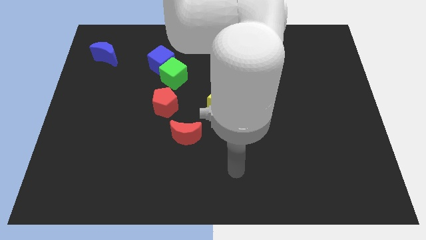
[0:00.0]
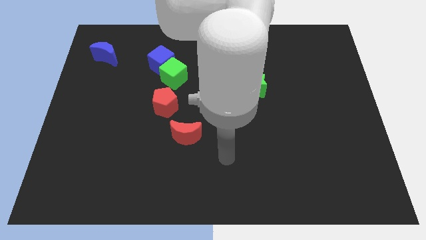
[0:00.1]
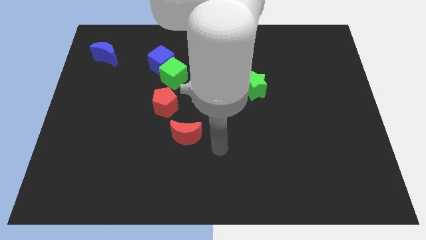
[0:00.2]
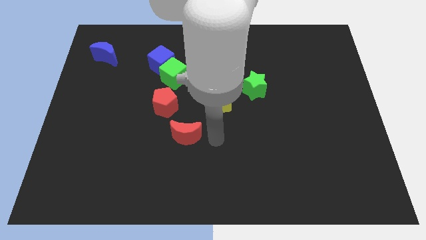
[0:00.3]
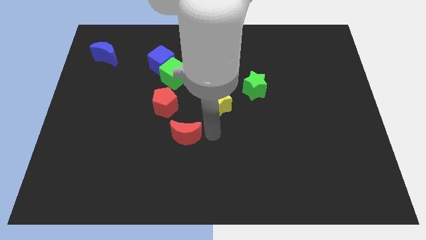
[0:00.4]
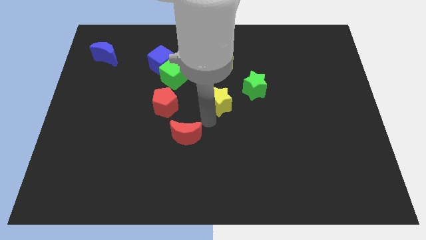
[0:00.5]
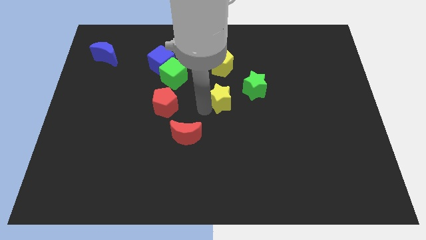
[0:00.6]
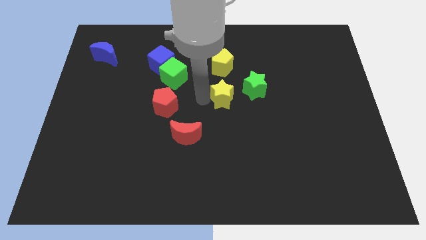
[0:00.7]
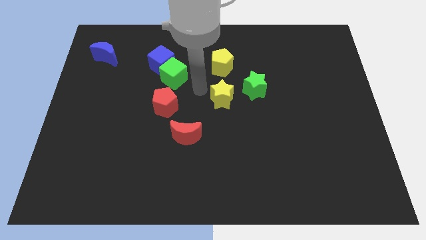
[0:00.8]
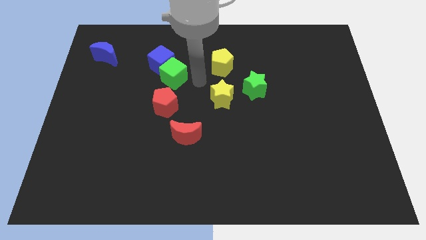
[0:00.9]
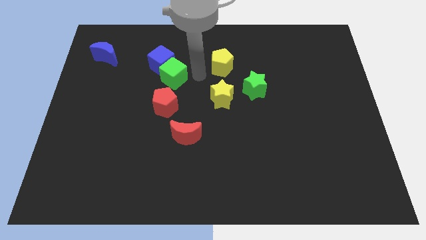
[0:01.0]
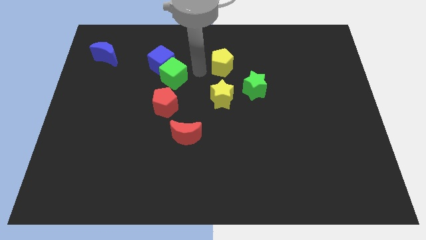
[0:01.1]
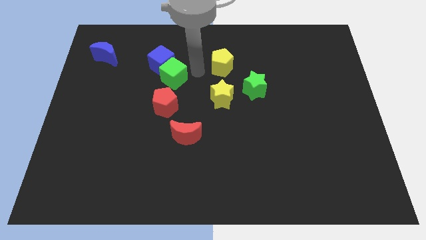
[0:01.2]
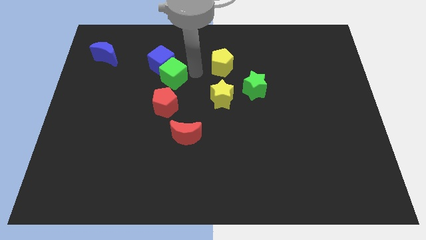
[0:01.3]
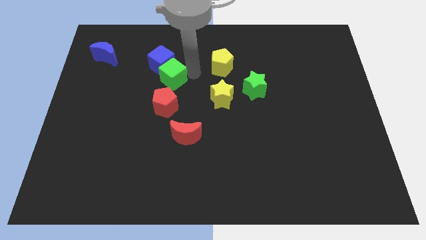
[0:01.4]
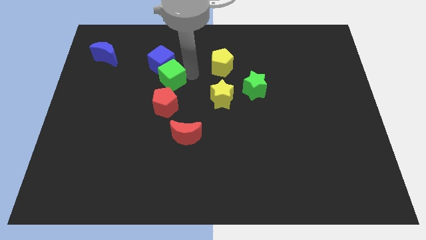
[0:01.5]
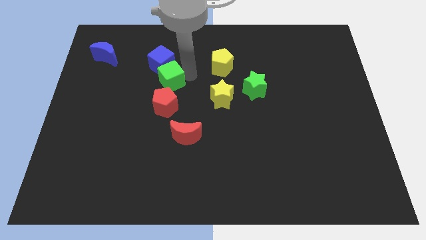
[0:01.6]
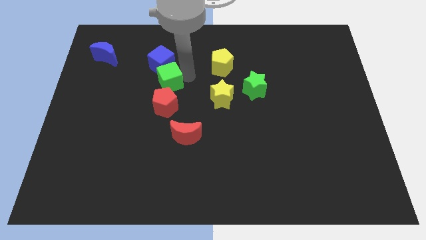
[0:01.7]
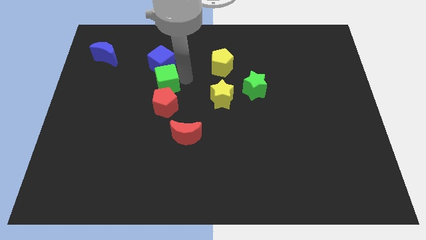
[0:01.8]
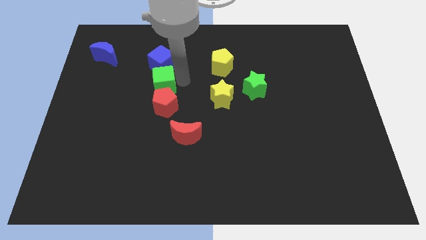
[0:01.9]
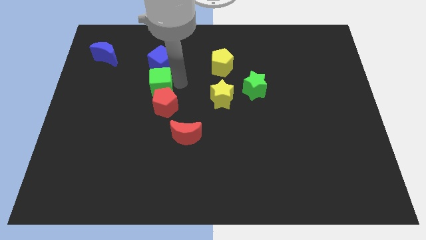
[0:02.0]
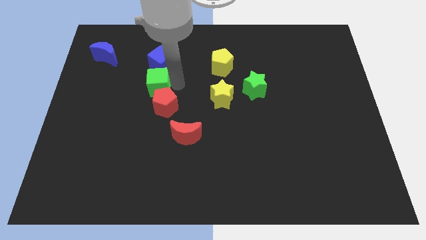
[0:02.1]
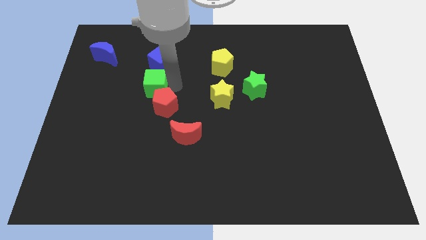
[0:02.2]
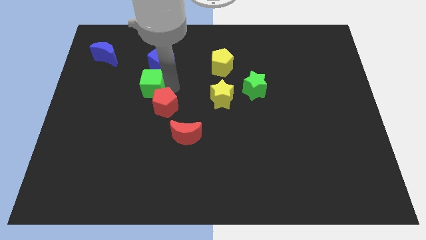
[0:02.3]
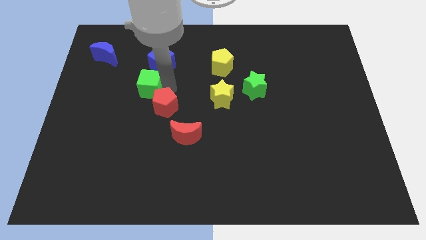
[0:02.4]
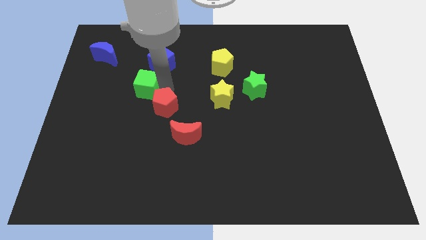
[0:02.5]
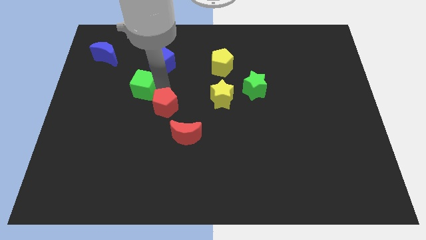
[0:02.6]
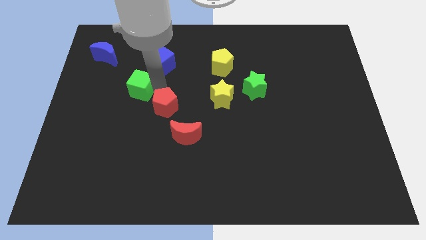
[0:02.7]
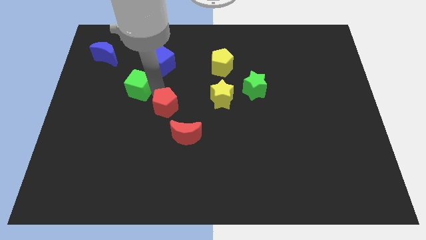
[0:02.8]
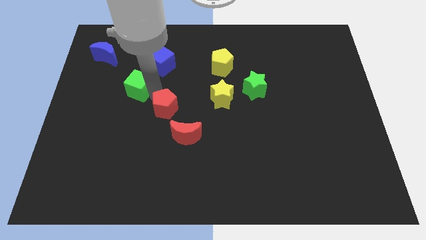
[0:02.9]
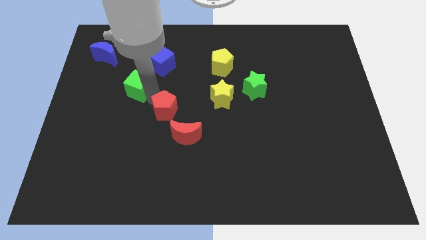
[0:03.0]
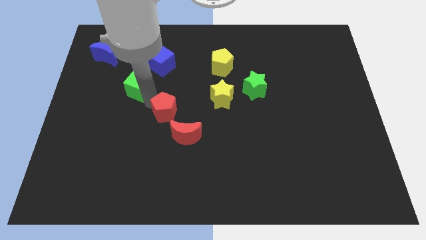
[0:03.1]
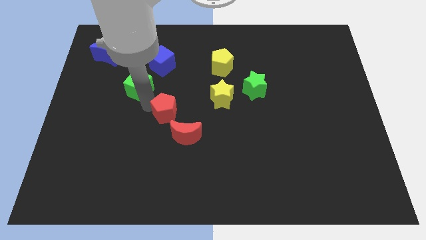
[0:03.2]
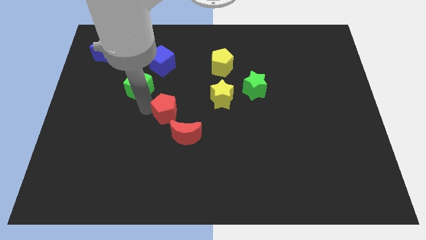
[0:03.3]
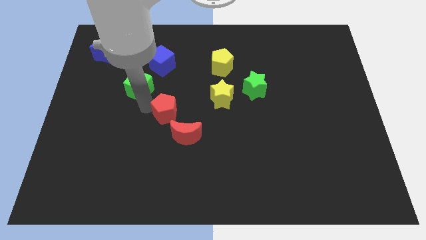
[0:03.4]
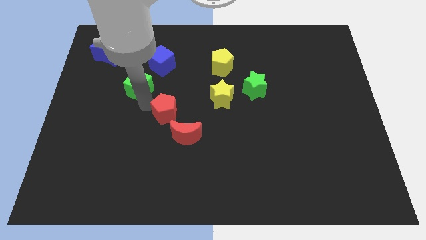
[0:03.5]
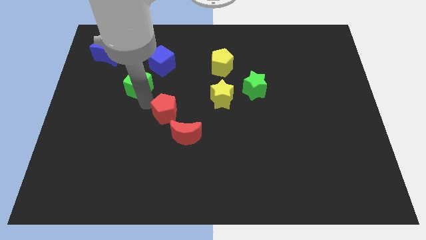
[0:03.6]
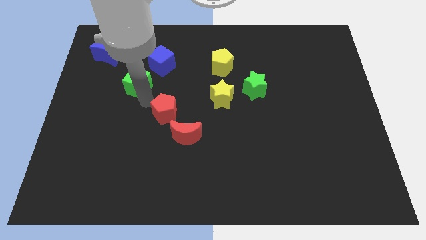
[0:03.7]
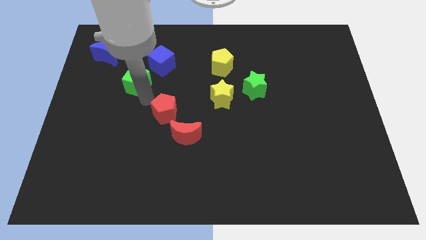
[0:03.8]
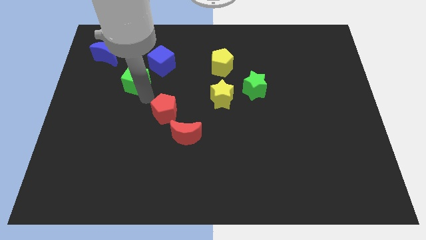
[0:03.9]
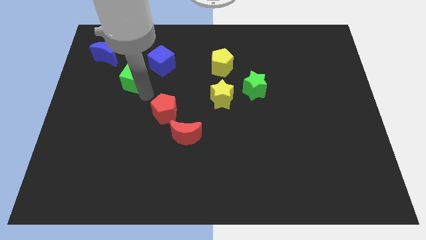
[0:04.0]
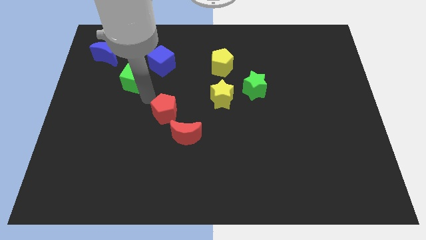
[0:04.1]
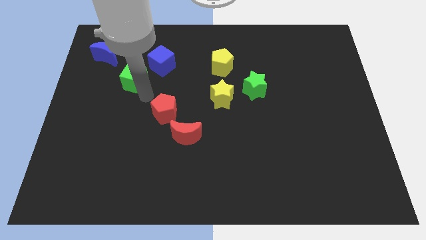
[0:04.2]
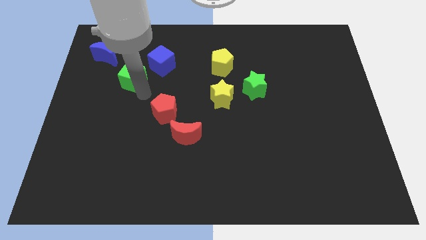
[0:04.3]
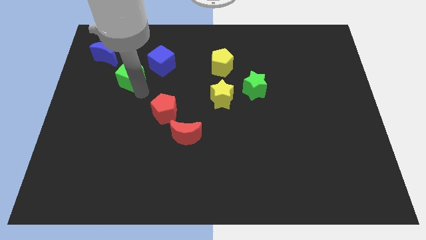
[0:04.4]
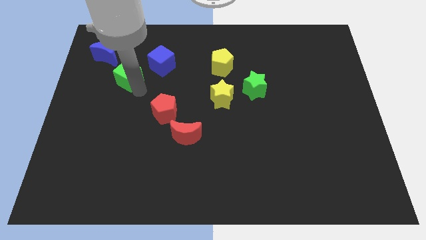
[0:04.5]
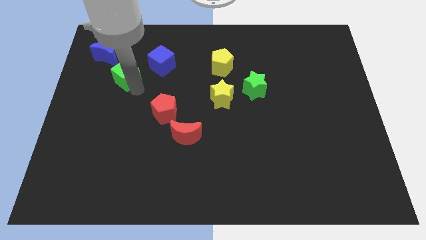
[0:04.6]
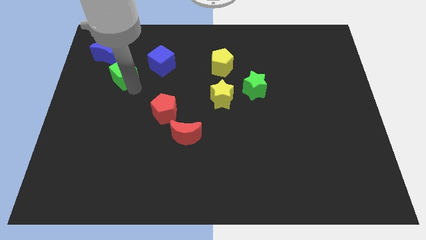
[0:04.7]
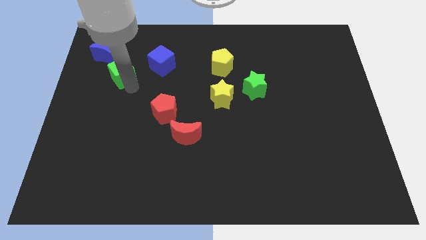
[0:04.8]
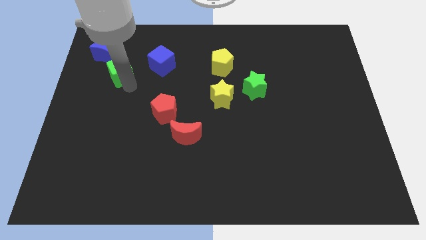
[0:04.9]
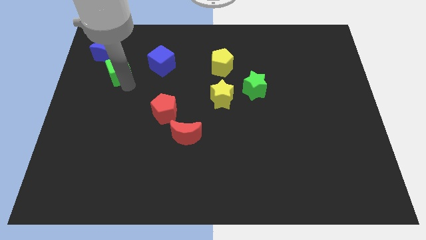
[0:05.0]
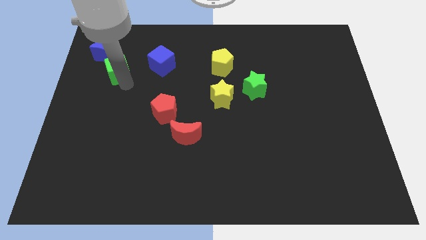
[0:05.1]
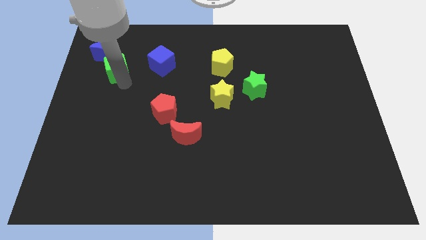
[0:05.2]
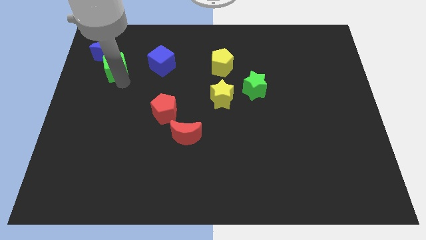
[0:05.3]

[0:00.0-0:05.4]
move the green cube towards the blue moon

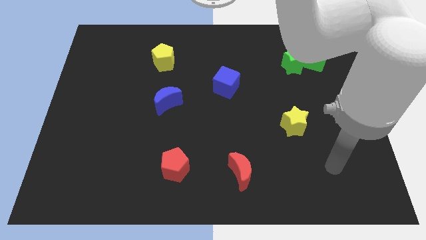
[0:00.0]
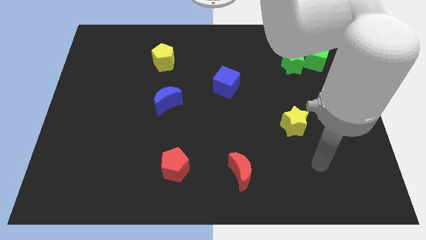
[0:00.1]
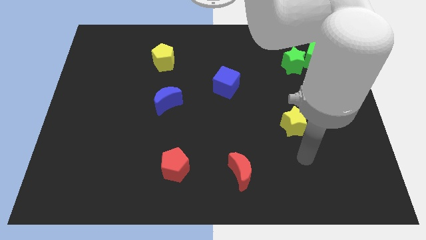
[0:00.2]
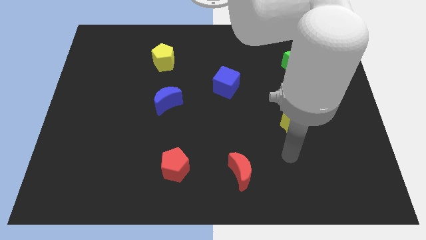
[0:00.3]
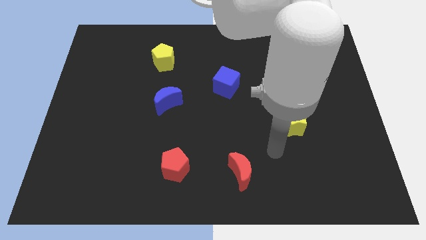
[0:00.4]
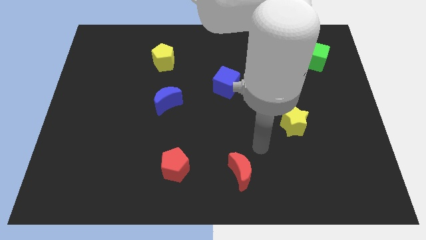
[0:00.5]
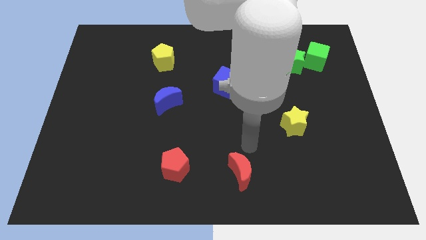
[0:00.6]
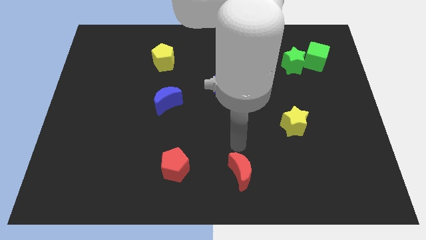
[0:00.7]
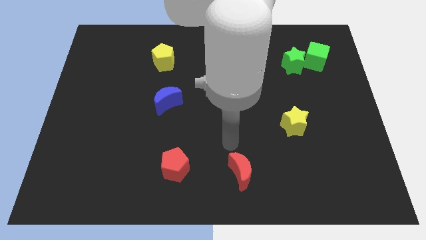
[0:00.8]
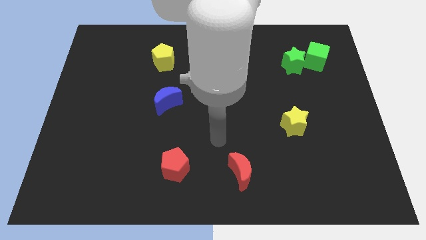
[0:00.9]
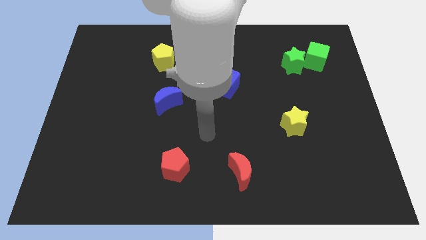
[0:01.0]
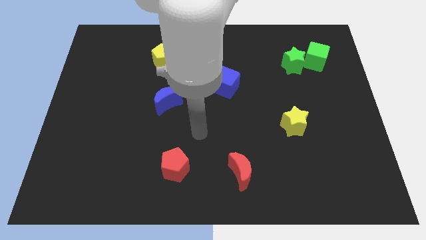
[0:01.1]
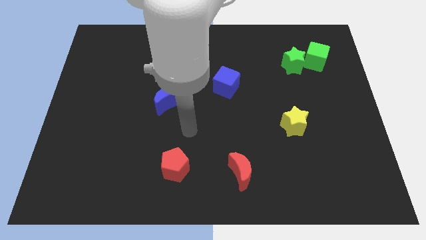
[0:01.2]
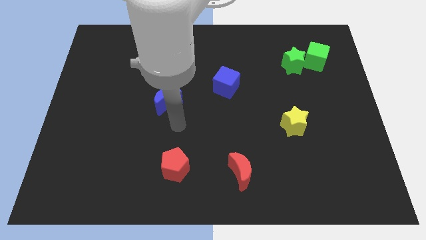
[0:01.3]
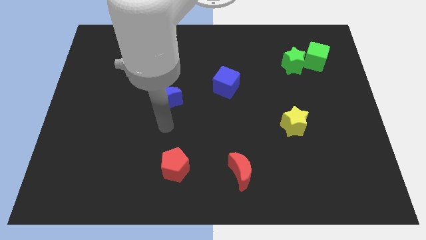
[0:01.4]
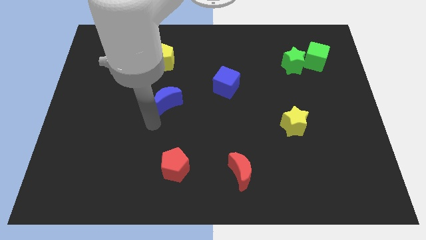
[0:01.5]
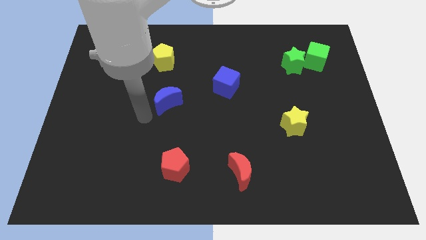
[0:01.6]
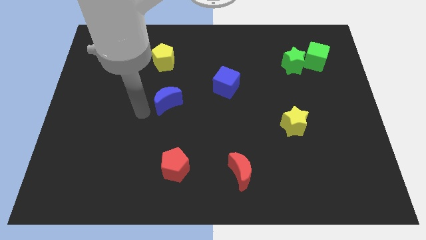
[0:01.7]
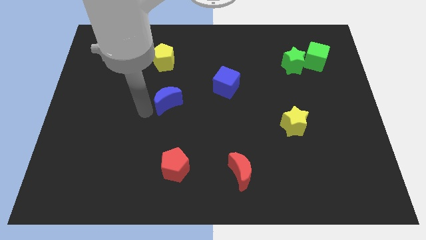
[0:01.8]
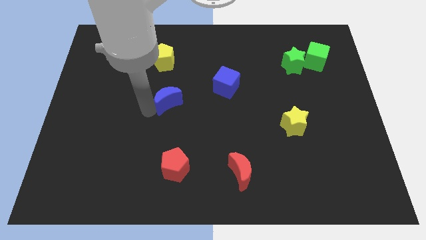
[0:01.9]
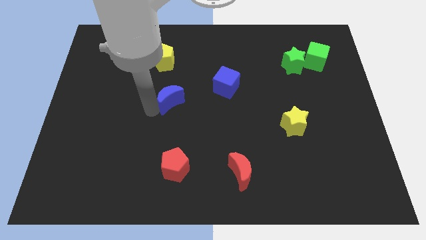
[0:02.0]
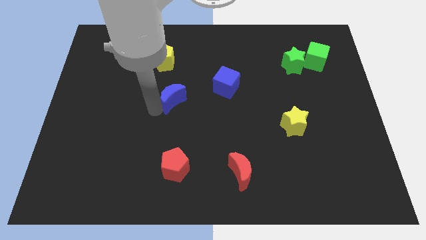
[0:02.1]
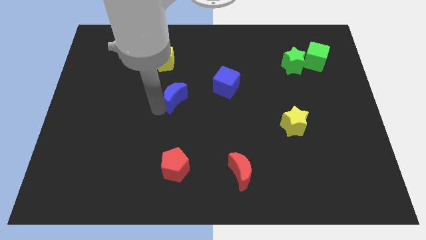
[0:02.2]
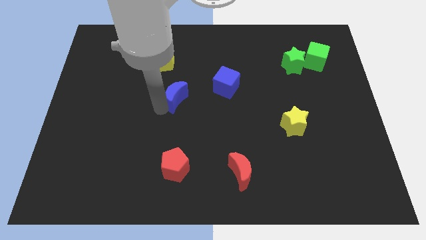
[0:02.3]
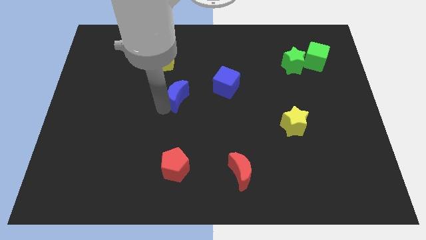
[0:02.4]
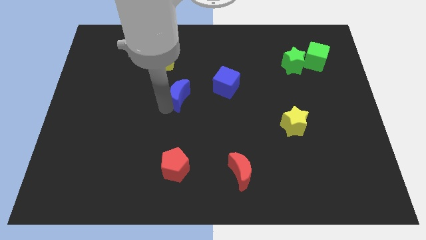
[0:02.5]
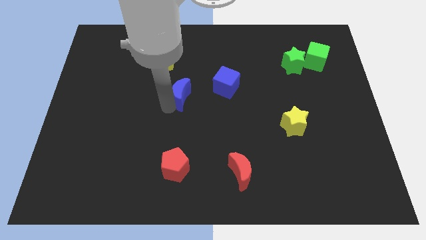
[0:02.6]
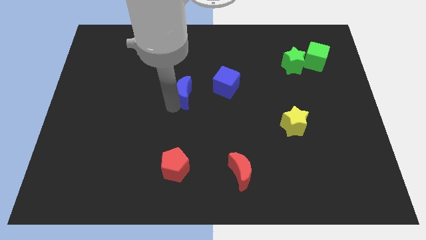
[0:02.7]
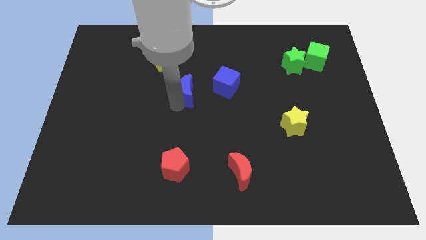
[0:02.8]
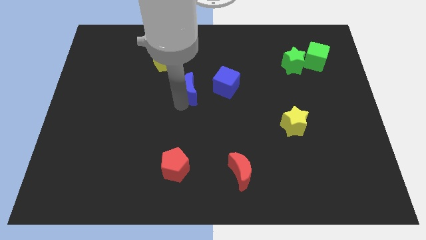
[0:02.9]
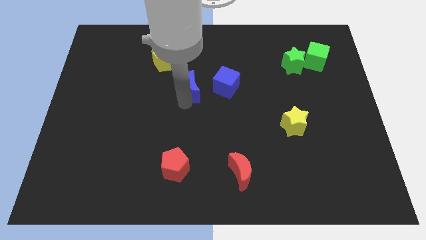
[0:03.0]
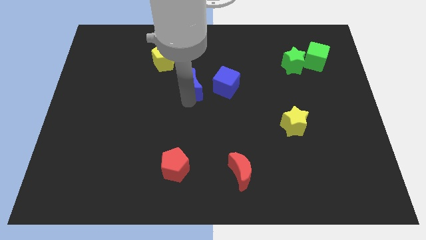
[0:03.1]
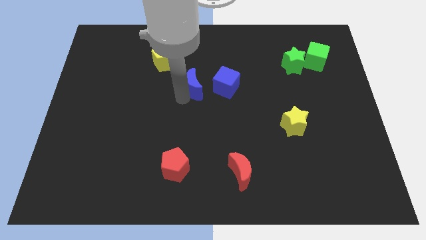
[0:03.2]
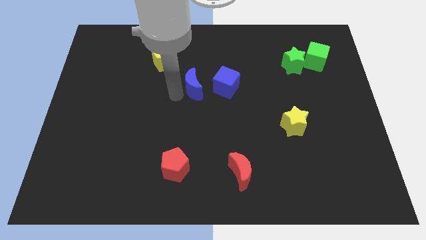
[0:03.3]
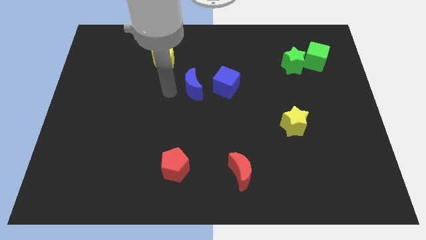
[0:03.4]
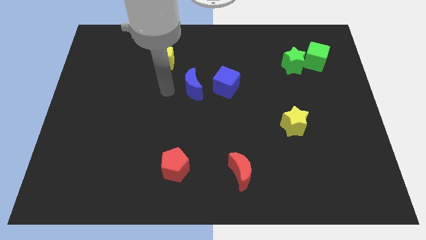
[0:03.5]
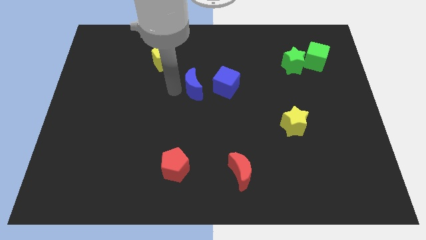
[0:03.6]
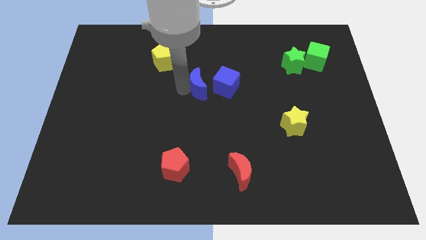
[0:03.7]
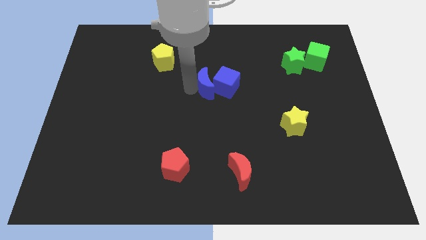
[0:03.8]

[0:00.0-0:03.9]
slide the blue moon next to the blue cube
